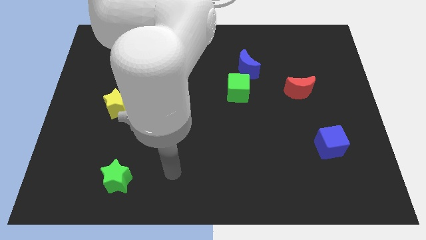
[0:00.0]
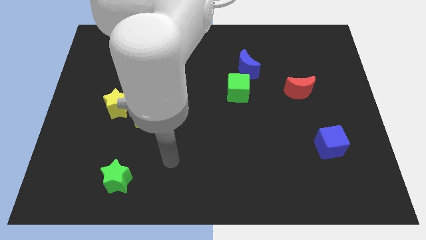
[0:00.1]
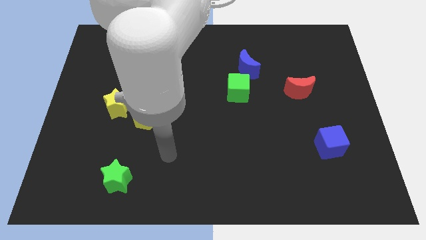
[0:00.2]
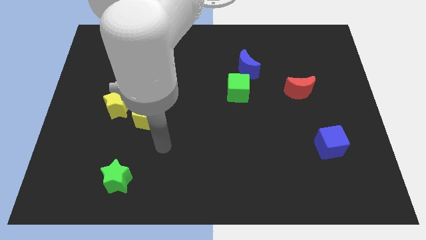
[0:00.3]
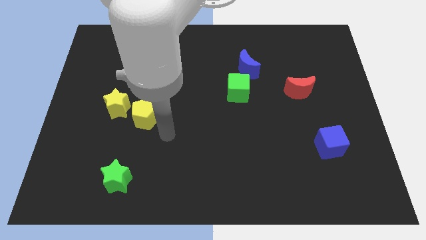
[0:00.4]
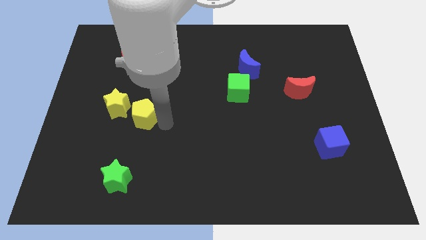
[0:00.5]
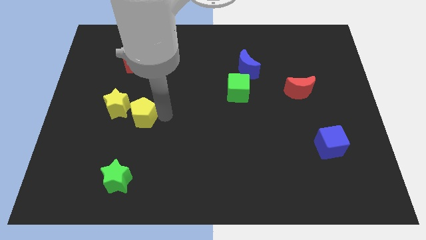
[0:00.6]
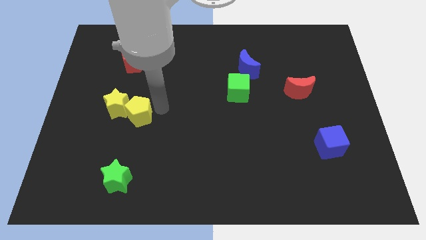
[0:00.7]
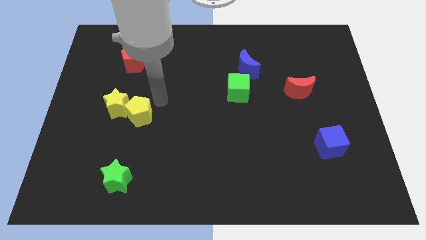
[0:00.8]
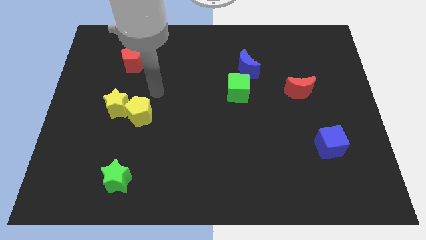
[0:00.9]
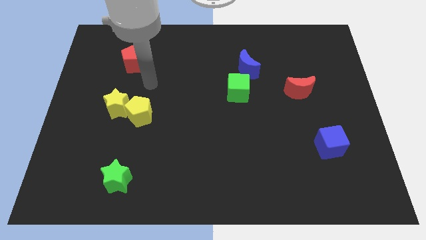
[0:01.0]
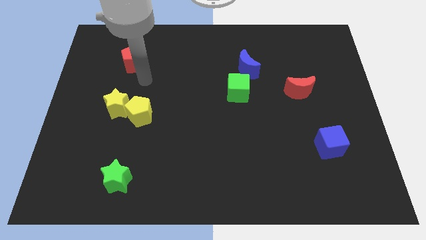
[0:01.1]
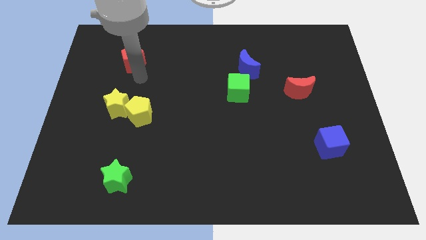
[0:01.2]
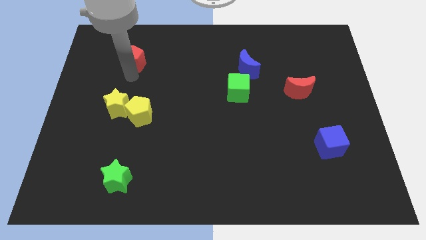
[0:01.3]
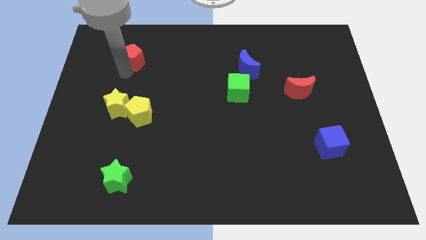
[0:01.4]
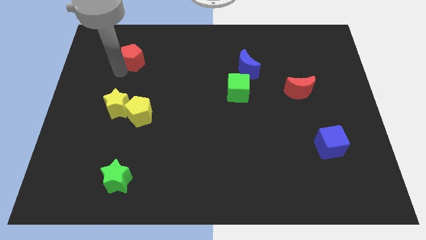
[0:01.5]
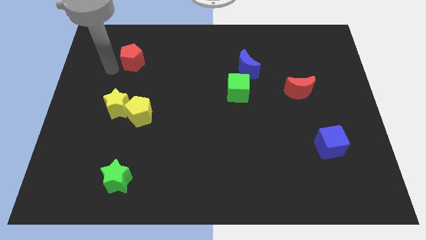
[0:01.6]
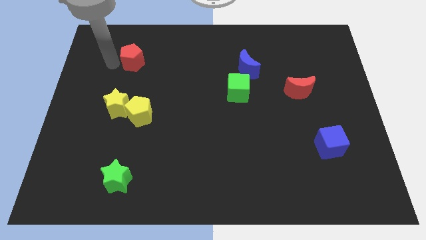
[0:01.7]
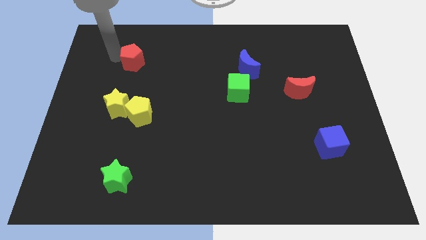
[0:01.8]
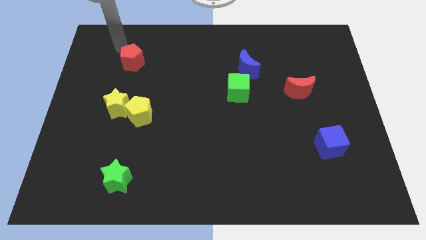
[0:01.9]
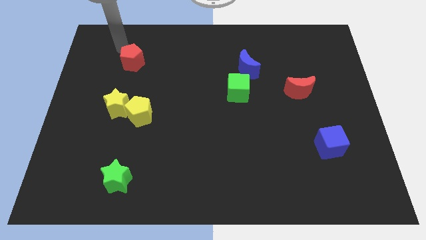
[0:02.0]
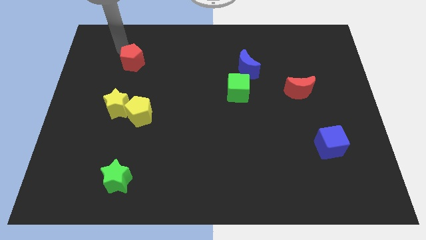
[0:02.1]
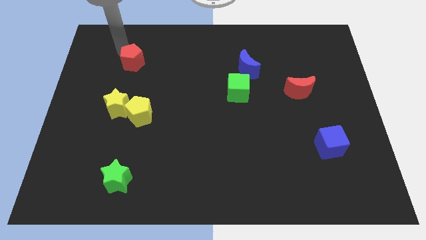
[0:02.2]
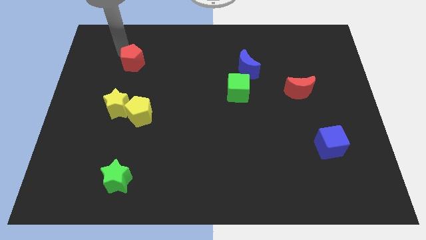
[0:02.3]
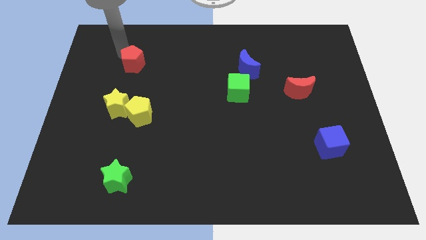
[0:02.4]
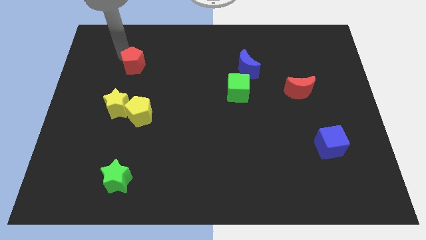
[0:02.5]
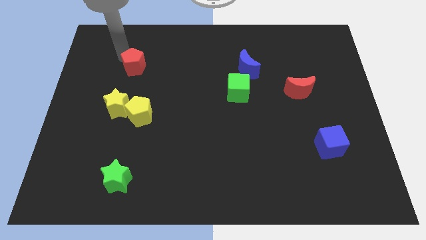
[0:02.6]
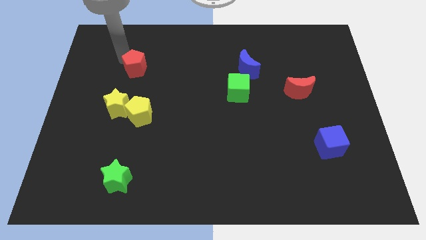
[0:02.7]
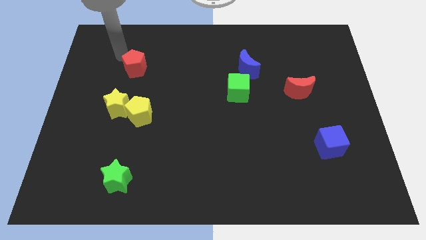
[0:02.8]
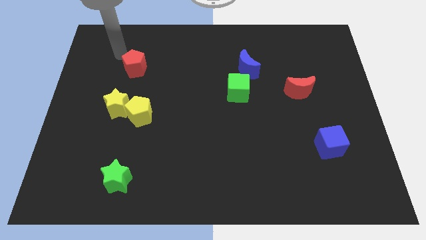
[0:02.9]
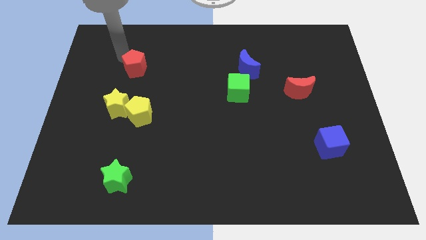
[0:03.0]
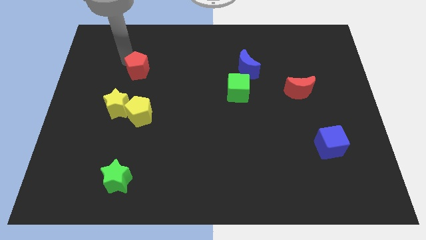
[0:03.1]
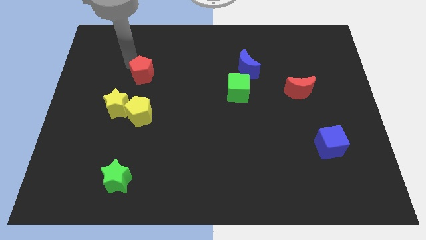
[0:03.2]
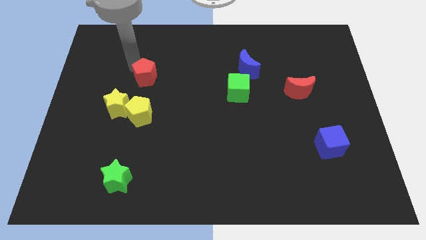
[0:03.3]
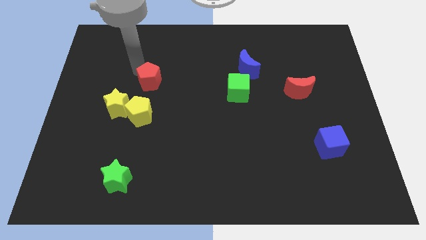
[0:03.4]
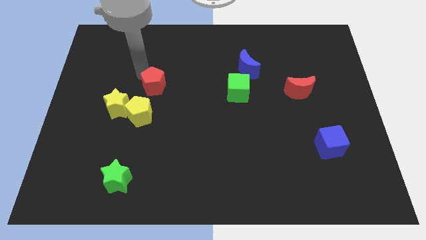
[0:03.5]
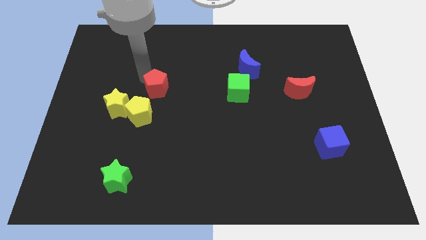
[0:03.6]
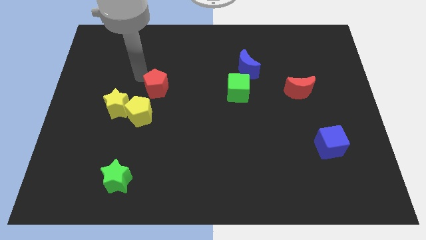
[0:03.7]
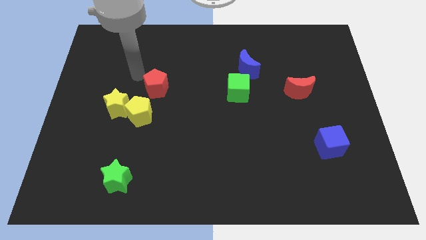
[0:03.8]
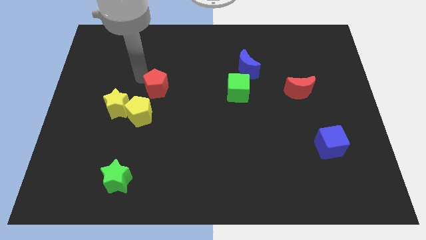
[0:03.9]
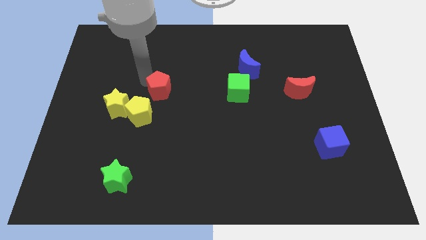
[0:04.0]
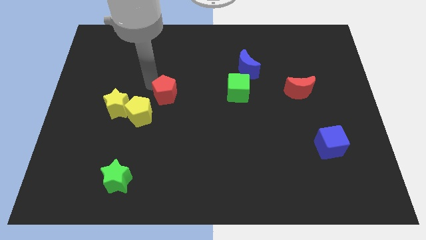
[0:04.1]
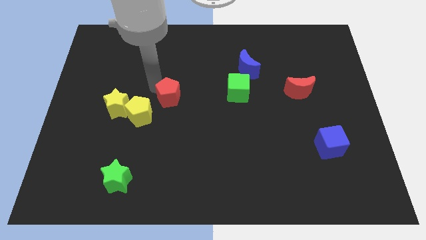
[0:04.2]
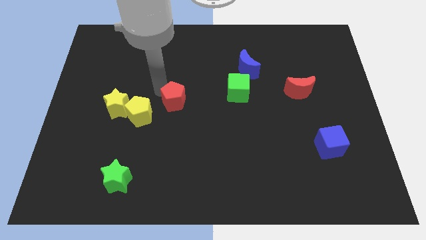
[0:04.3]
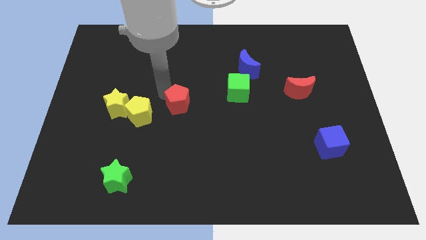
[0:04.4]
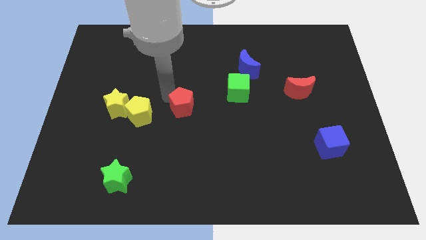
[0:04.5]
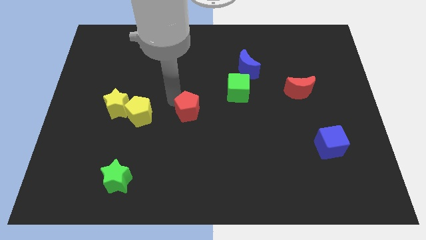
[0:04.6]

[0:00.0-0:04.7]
slide the red pentagon down and right diagonally

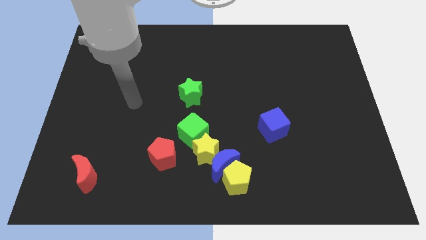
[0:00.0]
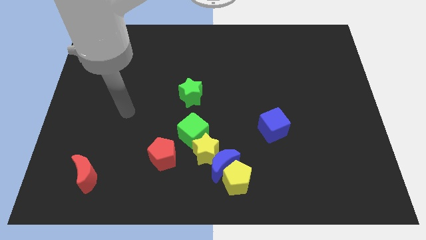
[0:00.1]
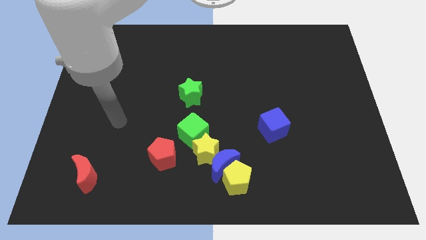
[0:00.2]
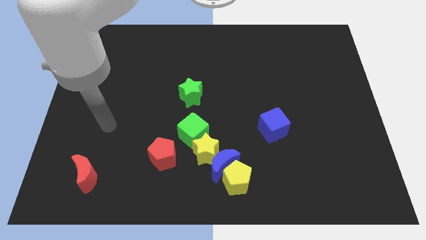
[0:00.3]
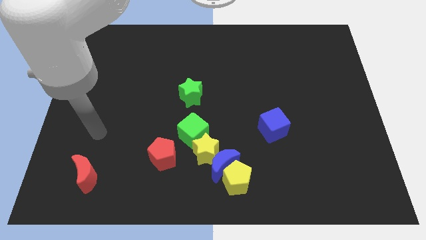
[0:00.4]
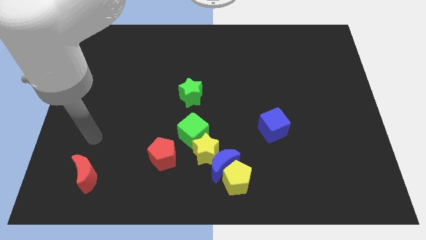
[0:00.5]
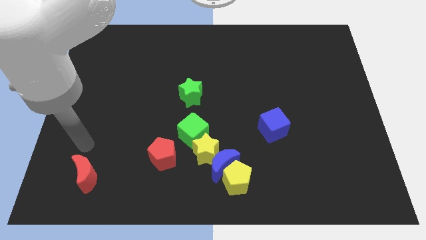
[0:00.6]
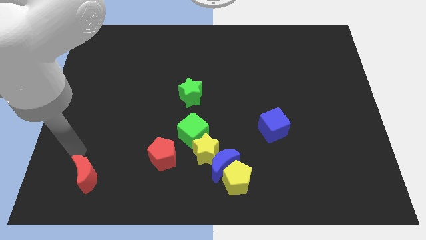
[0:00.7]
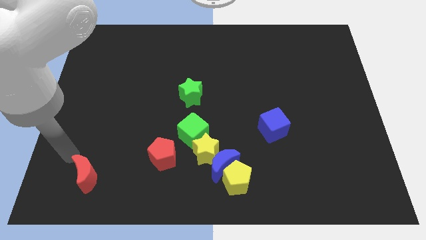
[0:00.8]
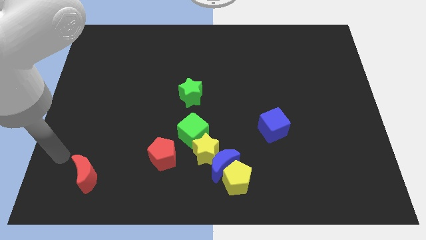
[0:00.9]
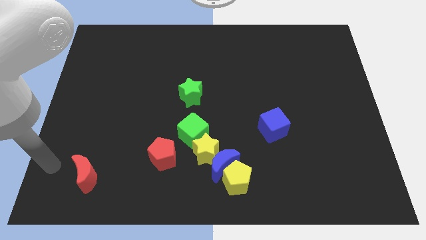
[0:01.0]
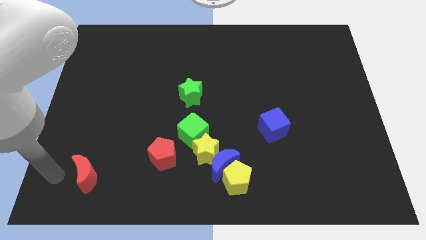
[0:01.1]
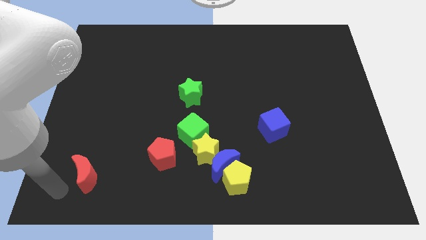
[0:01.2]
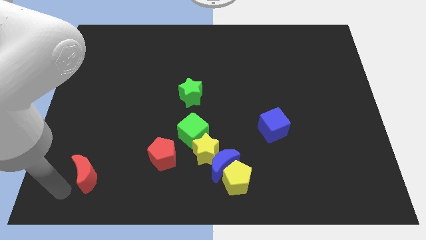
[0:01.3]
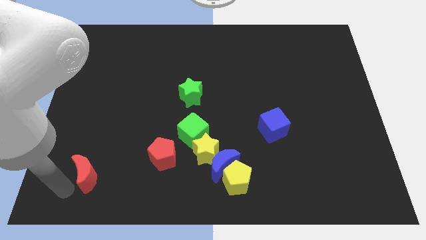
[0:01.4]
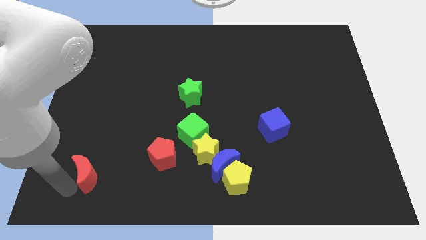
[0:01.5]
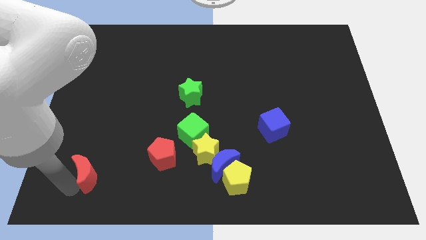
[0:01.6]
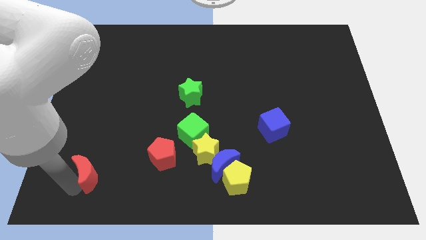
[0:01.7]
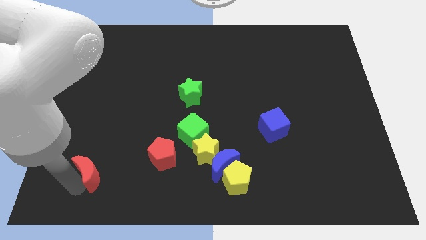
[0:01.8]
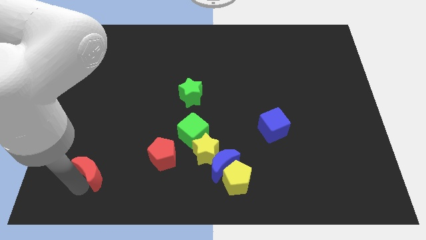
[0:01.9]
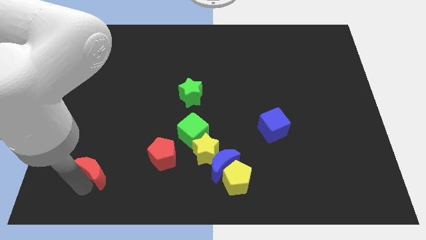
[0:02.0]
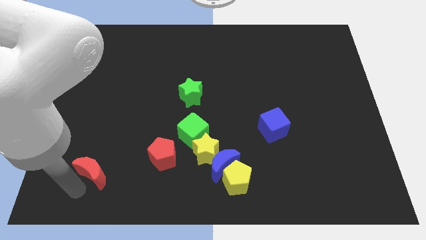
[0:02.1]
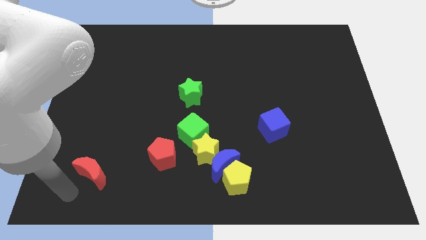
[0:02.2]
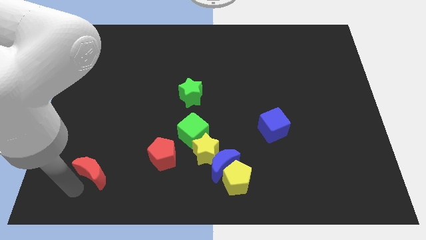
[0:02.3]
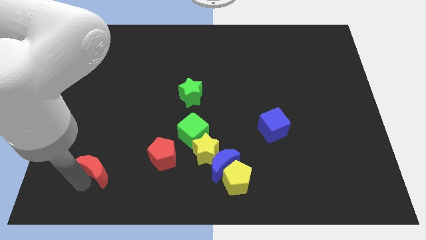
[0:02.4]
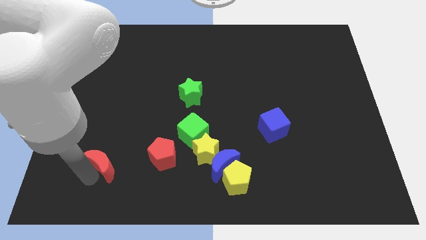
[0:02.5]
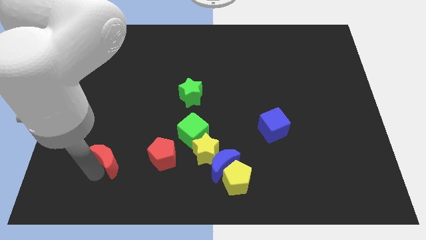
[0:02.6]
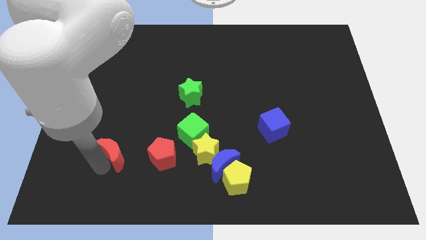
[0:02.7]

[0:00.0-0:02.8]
slide the red moon somewhat up and then right

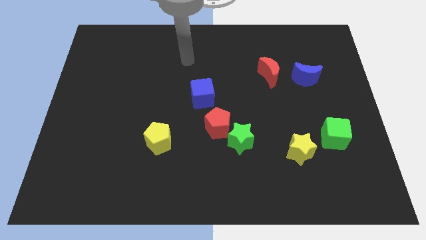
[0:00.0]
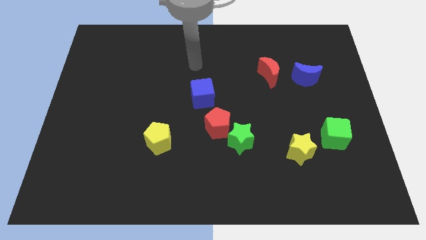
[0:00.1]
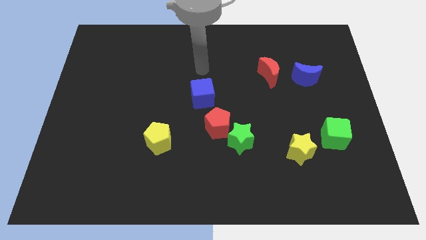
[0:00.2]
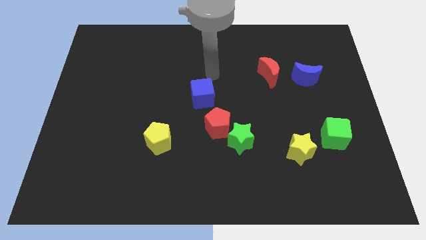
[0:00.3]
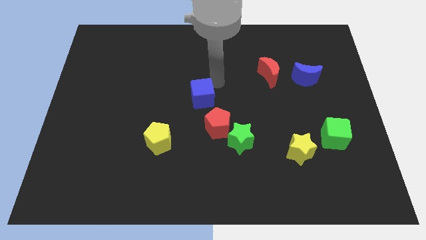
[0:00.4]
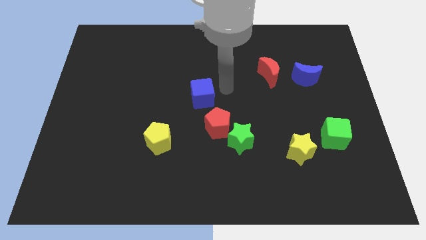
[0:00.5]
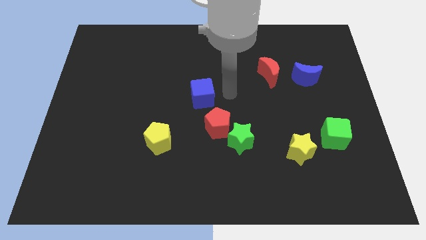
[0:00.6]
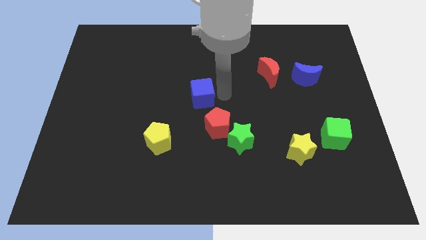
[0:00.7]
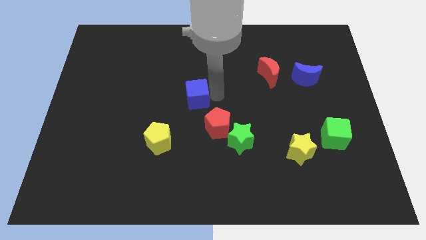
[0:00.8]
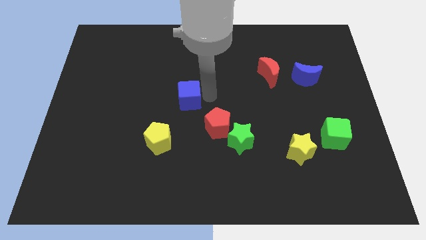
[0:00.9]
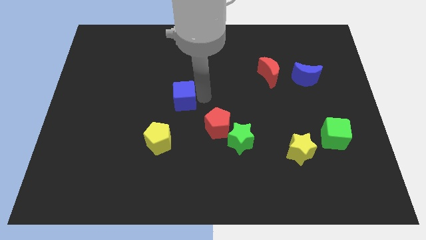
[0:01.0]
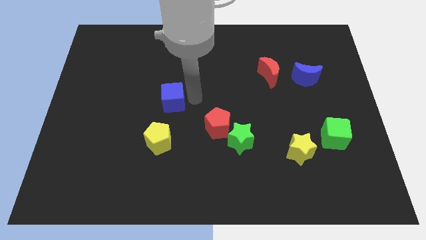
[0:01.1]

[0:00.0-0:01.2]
slightly slide the blue cube to the left
